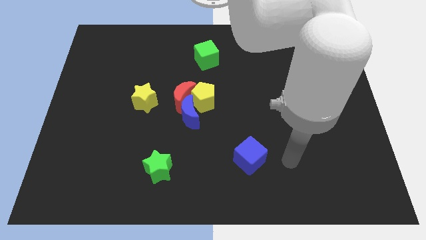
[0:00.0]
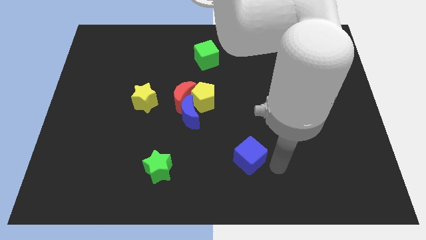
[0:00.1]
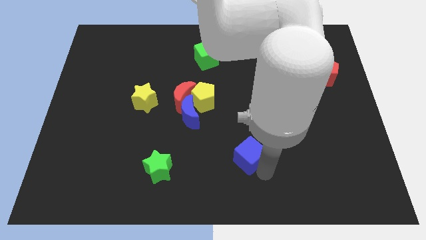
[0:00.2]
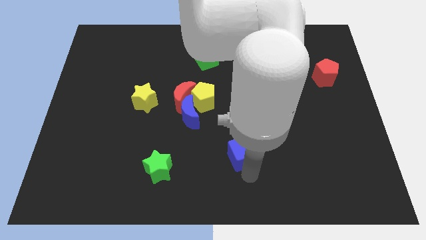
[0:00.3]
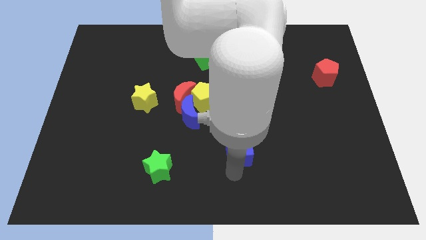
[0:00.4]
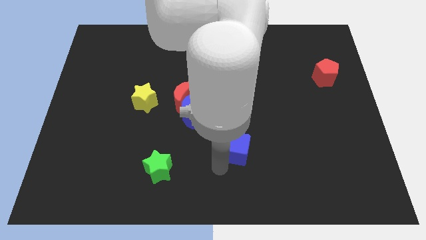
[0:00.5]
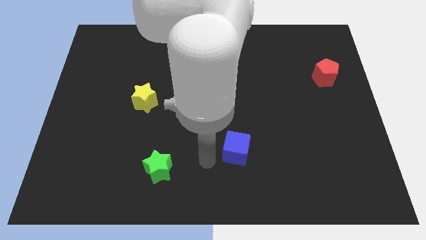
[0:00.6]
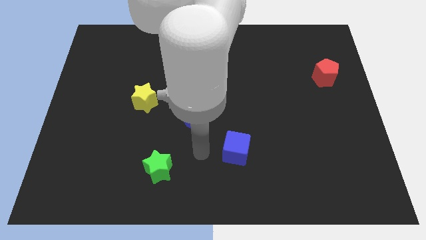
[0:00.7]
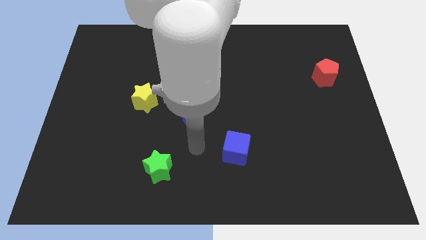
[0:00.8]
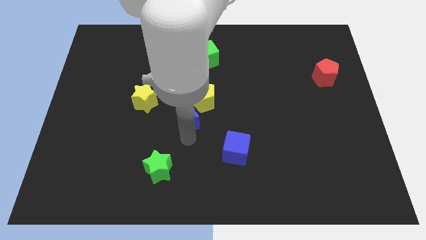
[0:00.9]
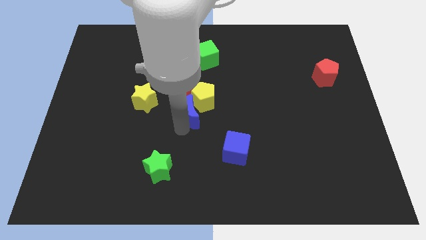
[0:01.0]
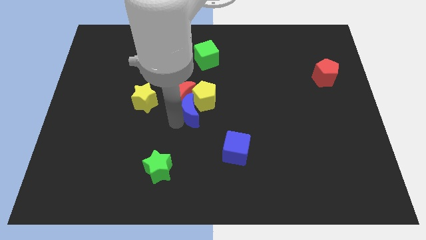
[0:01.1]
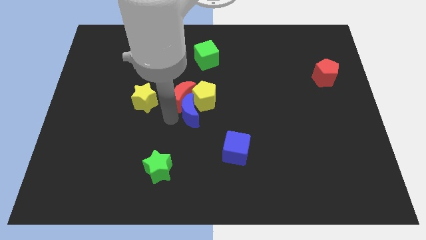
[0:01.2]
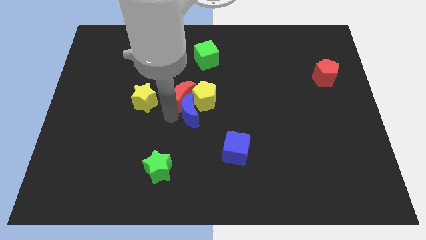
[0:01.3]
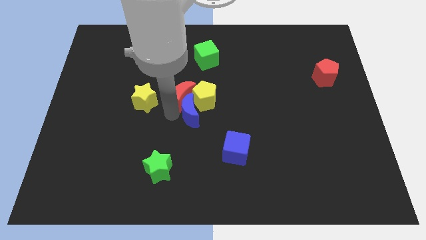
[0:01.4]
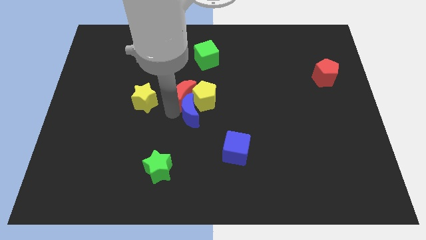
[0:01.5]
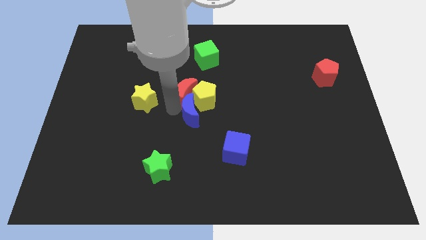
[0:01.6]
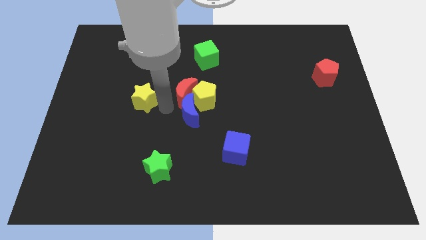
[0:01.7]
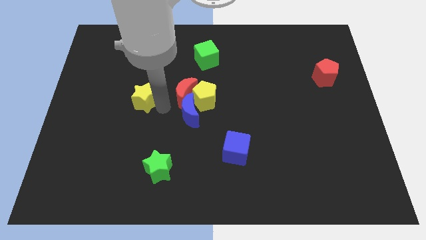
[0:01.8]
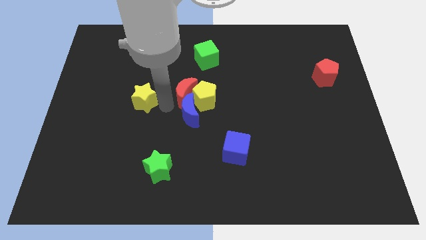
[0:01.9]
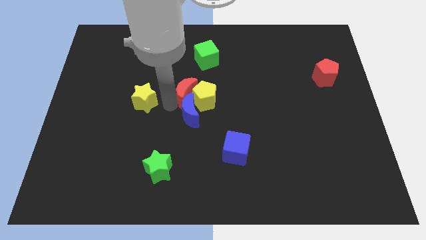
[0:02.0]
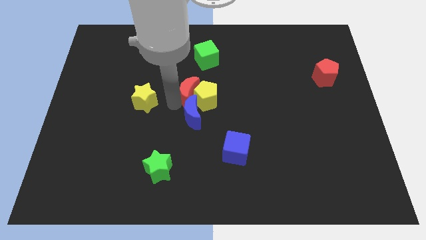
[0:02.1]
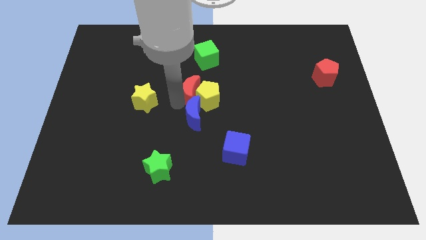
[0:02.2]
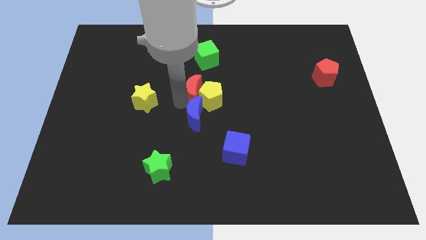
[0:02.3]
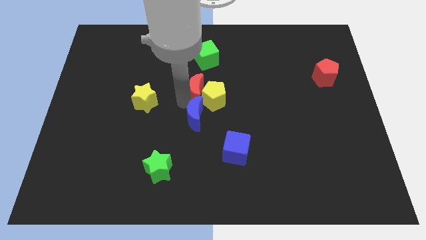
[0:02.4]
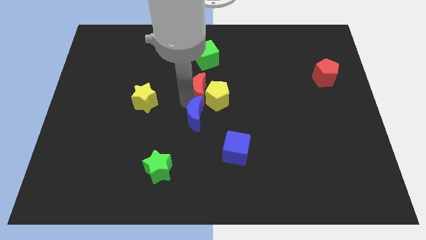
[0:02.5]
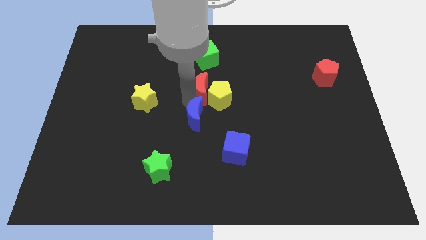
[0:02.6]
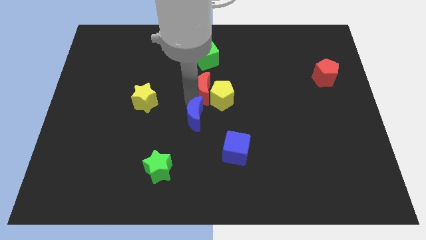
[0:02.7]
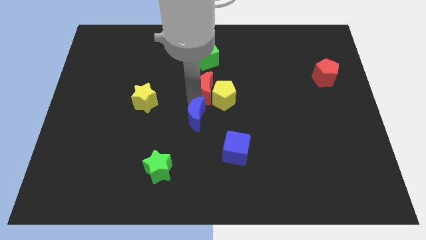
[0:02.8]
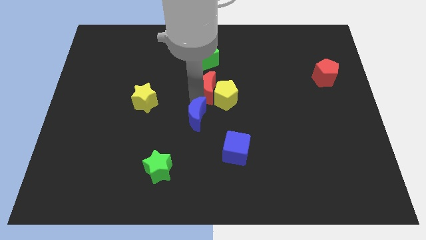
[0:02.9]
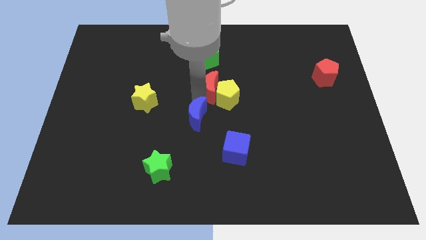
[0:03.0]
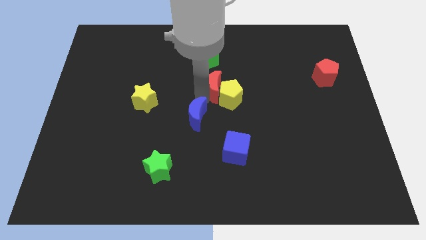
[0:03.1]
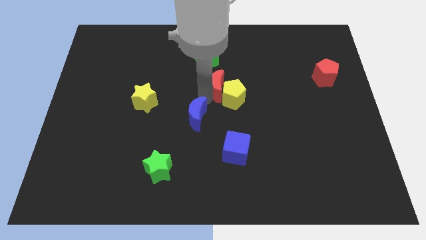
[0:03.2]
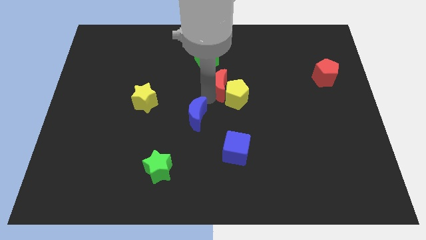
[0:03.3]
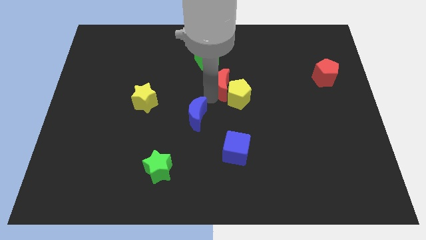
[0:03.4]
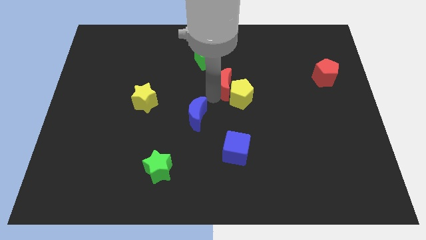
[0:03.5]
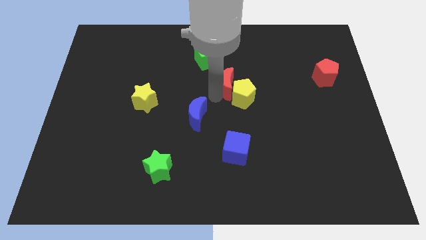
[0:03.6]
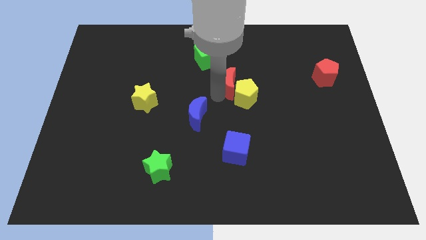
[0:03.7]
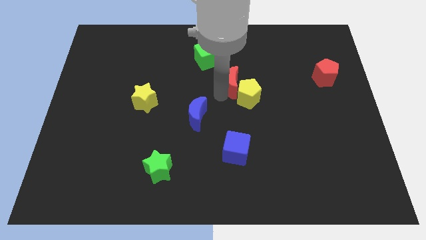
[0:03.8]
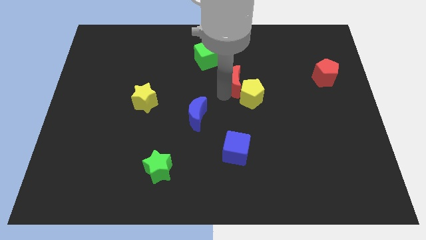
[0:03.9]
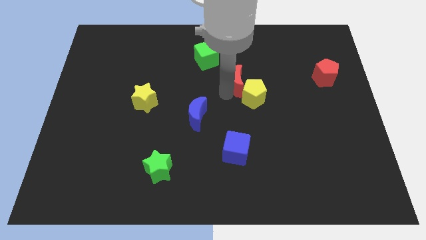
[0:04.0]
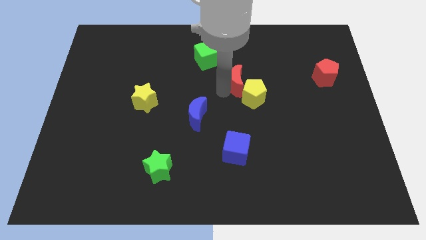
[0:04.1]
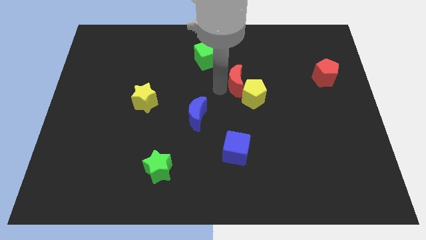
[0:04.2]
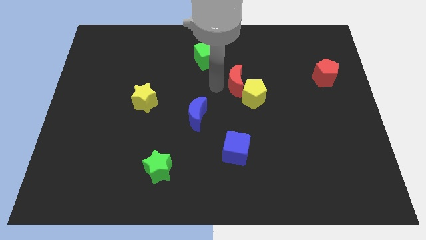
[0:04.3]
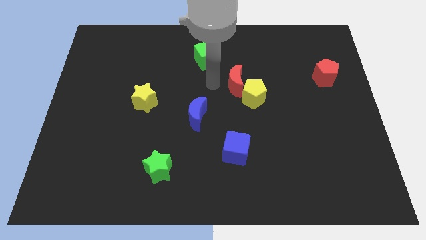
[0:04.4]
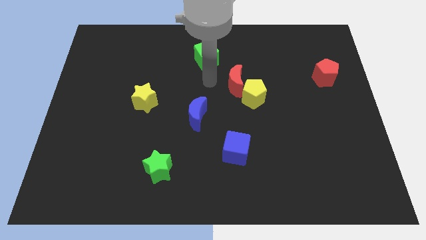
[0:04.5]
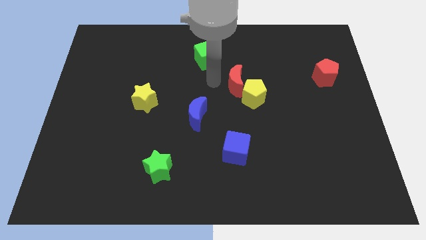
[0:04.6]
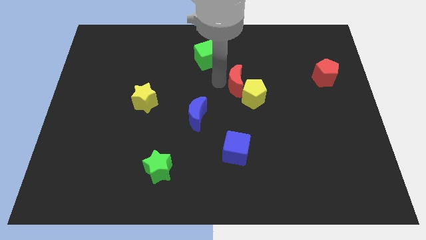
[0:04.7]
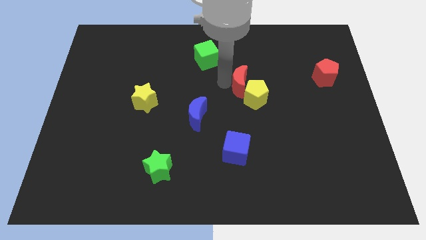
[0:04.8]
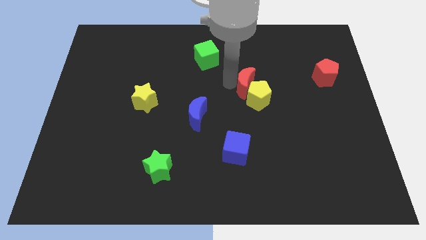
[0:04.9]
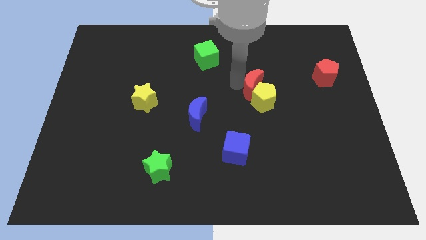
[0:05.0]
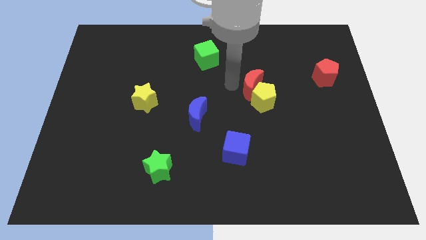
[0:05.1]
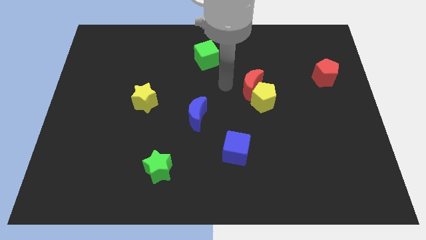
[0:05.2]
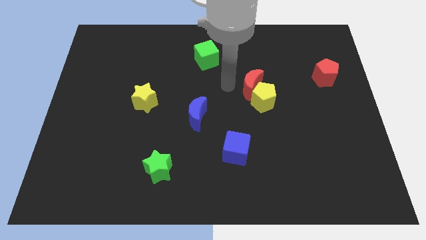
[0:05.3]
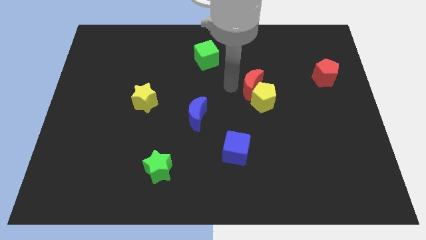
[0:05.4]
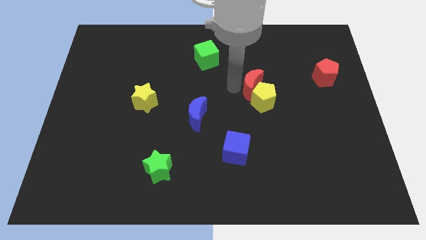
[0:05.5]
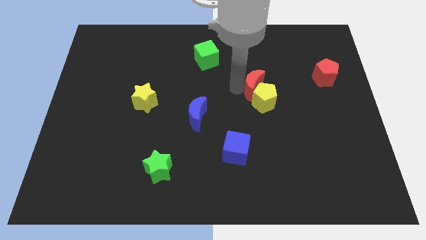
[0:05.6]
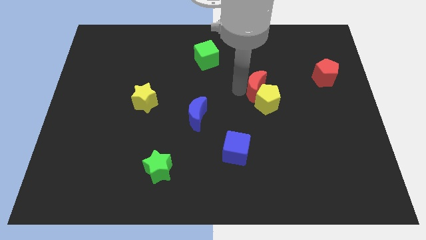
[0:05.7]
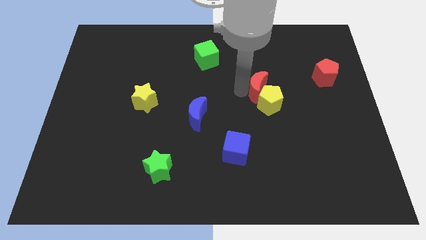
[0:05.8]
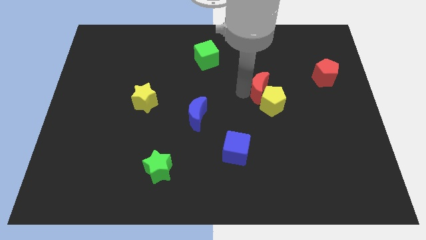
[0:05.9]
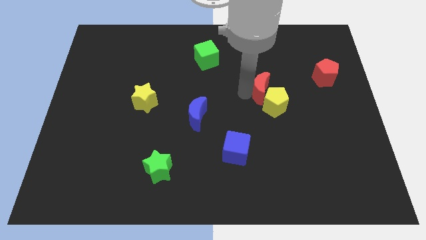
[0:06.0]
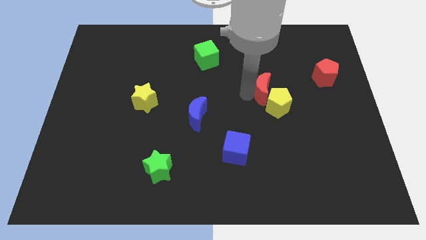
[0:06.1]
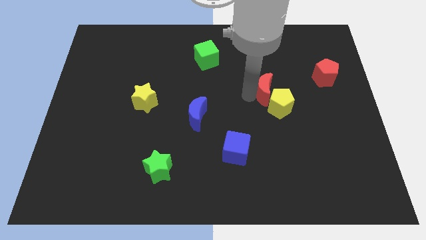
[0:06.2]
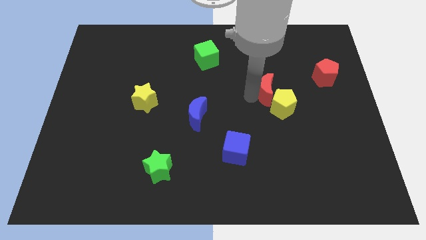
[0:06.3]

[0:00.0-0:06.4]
slide the red moon to the right

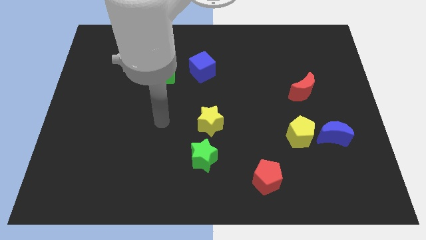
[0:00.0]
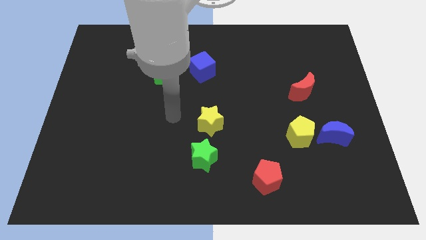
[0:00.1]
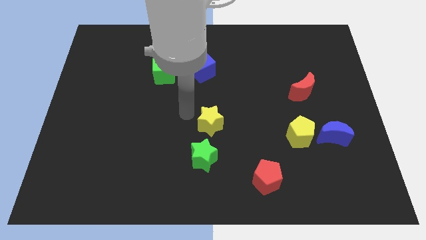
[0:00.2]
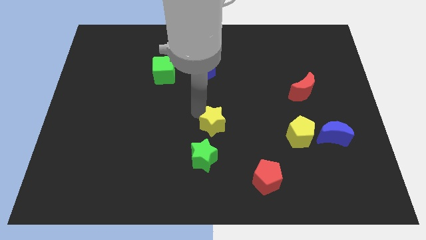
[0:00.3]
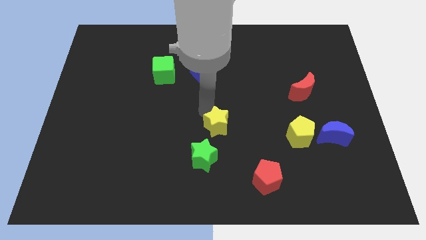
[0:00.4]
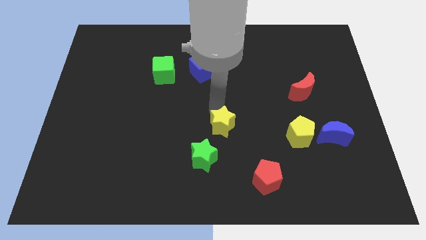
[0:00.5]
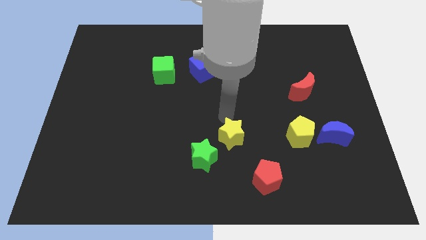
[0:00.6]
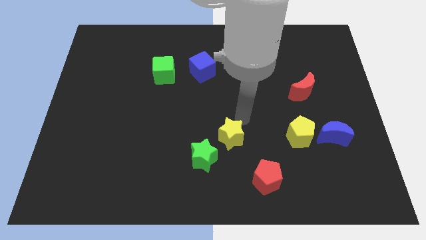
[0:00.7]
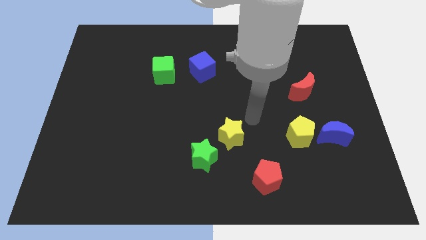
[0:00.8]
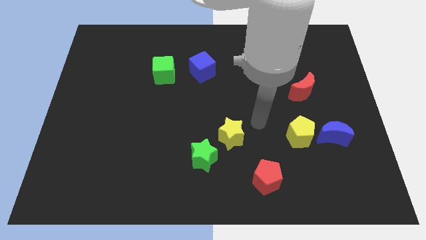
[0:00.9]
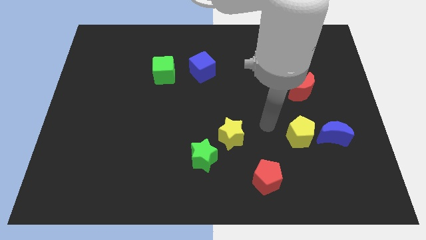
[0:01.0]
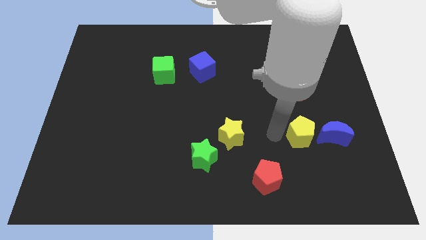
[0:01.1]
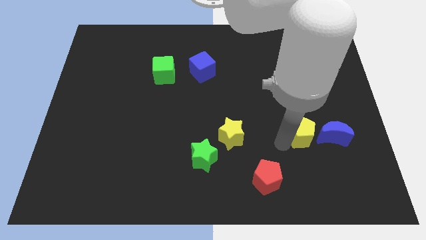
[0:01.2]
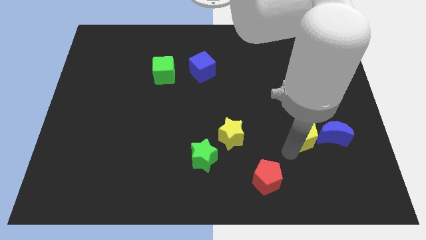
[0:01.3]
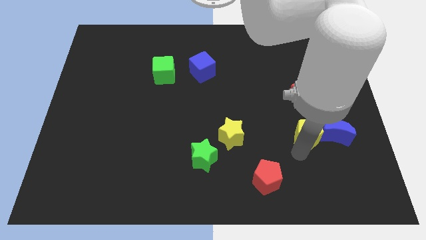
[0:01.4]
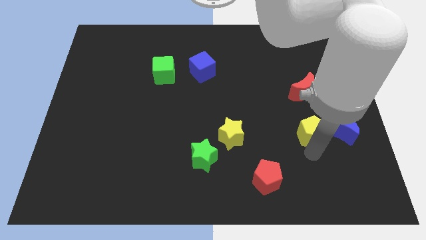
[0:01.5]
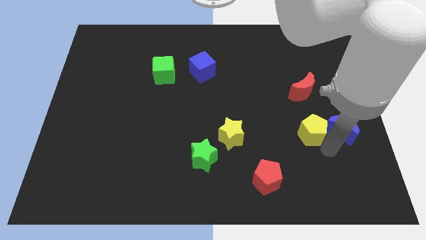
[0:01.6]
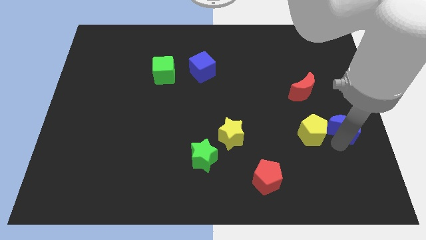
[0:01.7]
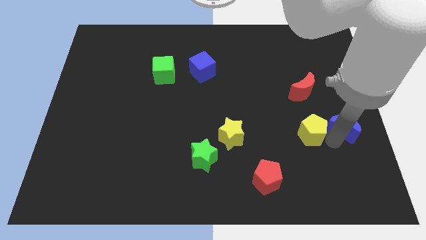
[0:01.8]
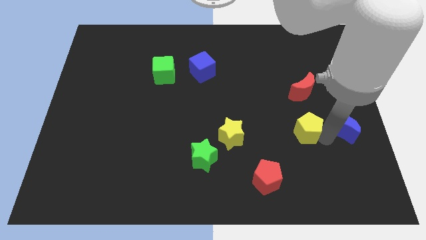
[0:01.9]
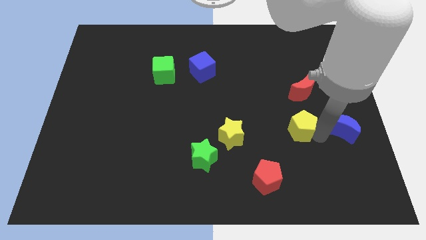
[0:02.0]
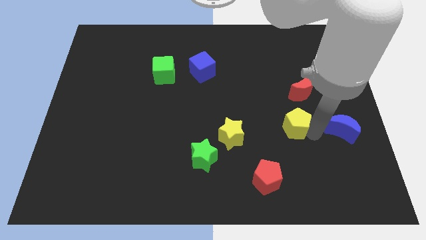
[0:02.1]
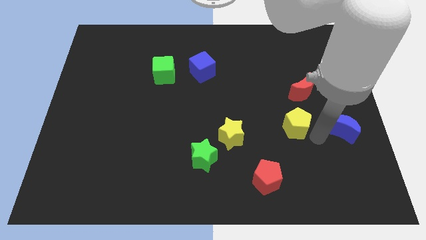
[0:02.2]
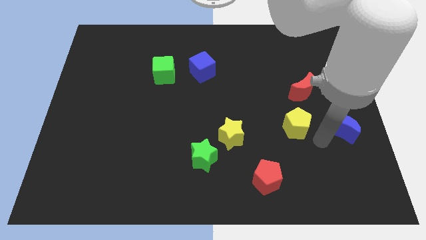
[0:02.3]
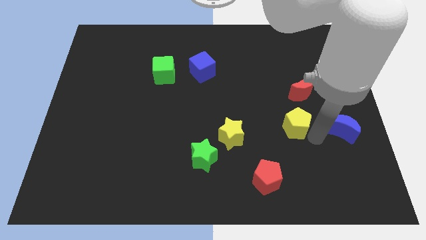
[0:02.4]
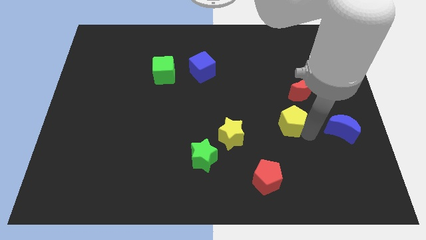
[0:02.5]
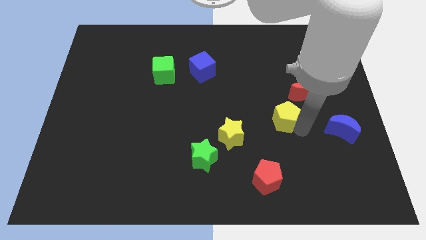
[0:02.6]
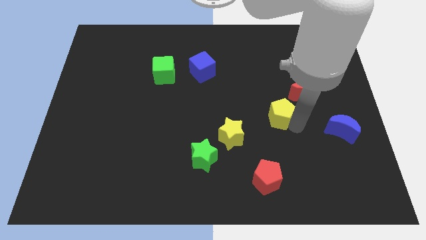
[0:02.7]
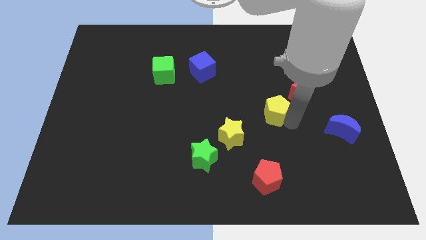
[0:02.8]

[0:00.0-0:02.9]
slide the yellow pentagon somewhat diagonally up and left
